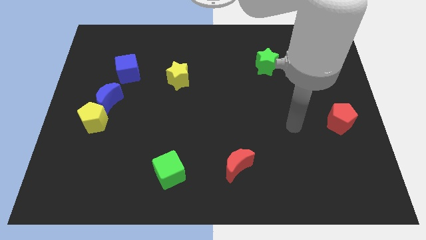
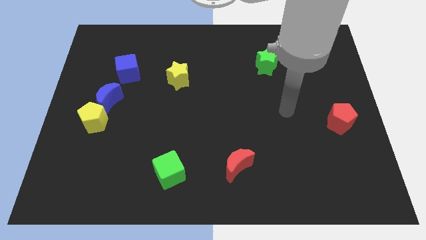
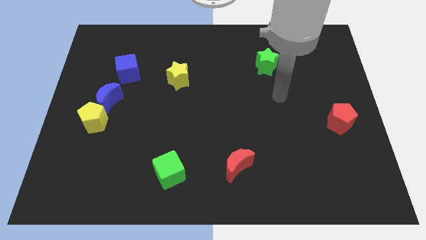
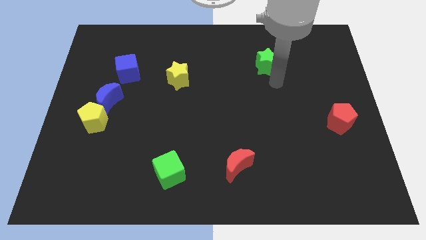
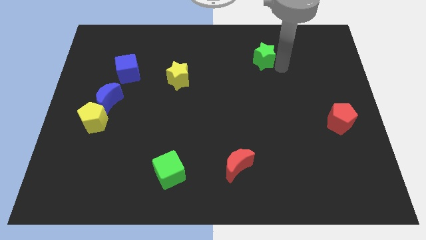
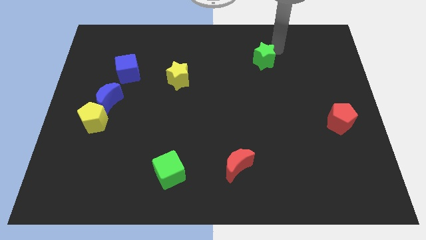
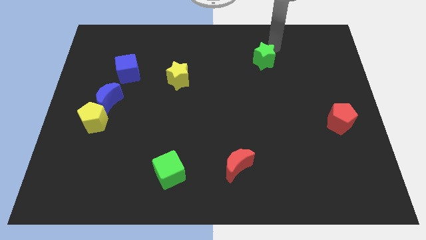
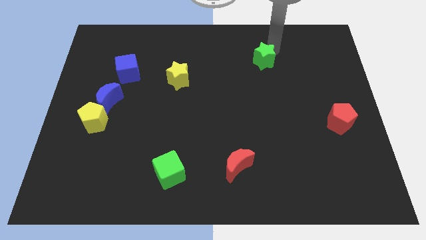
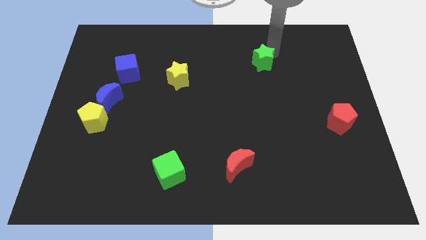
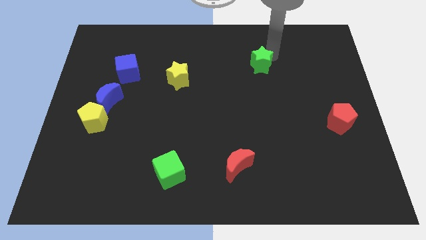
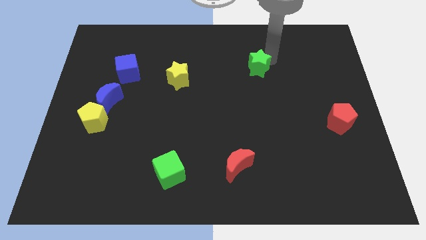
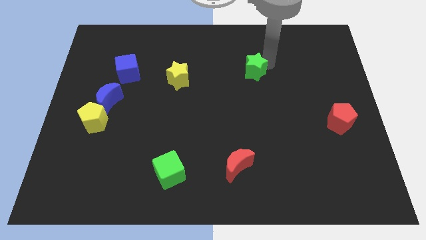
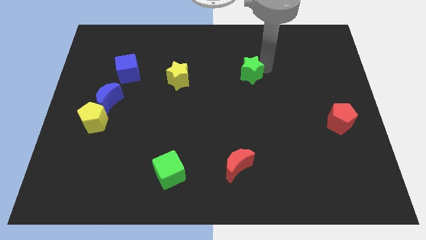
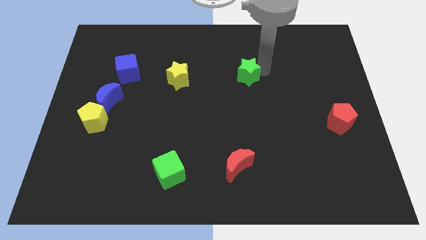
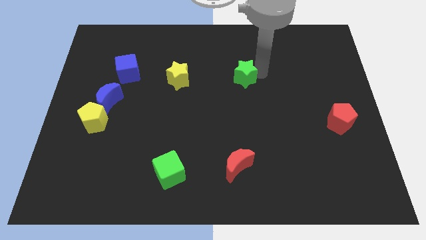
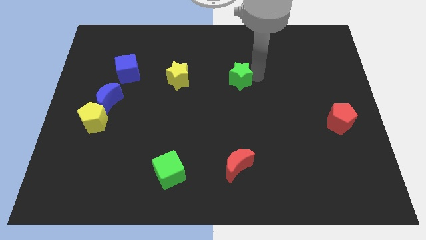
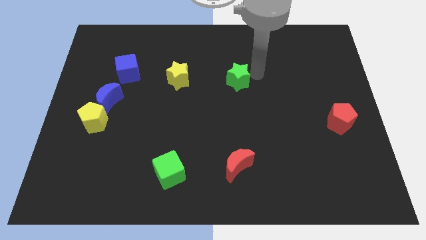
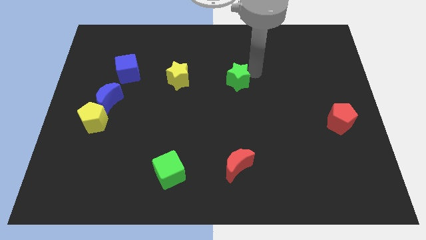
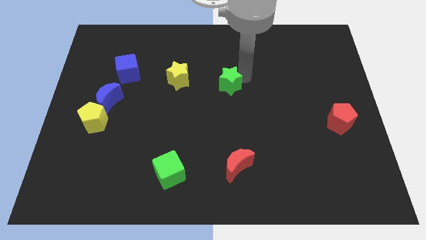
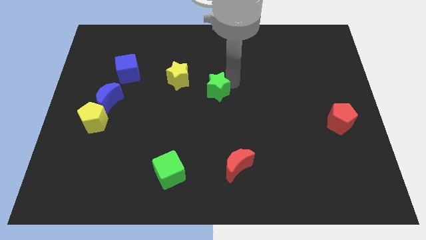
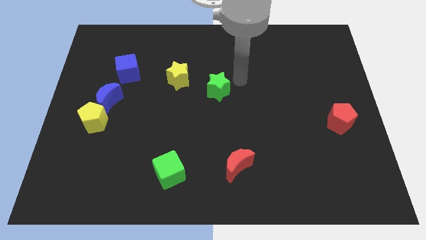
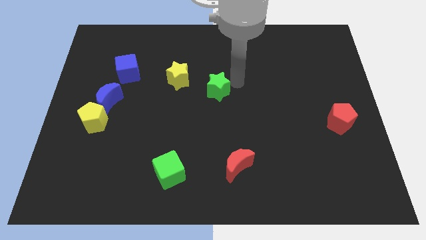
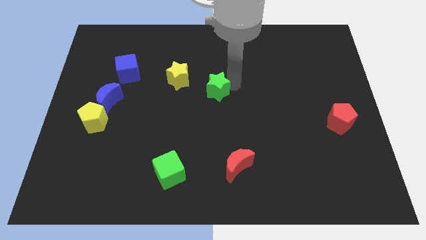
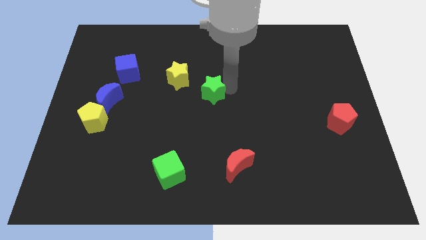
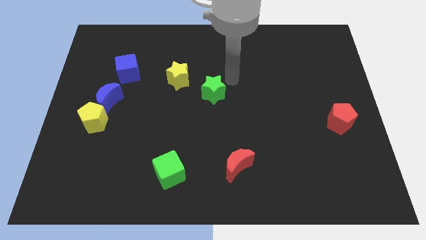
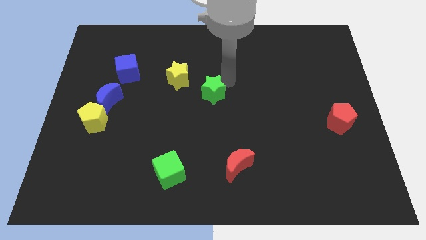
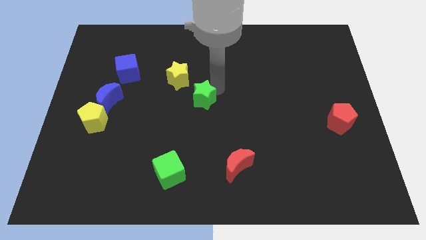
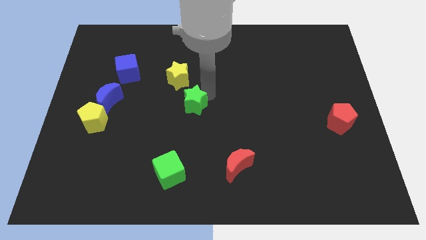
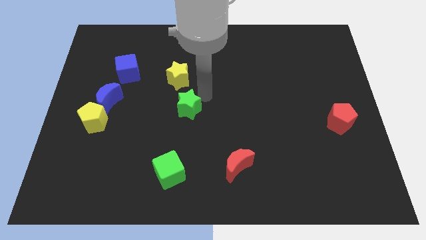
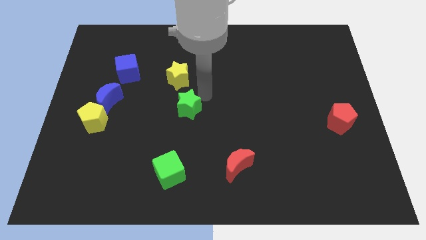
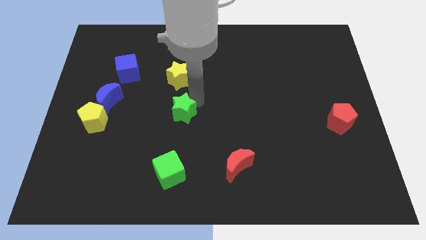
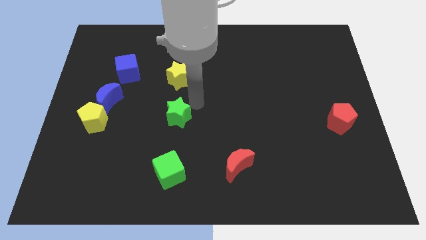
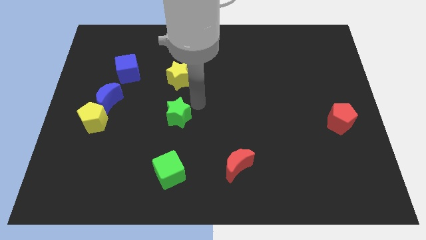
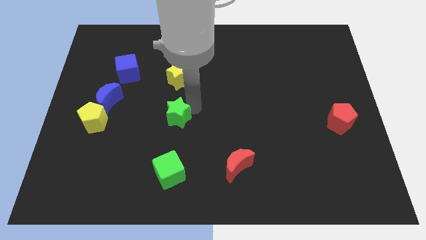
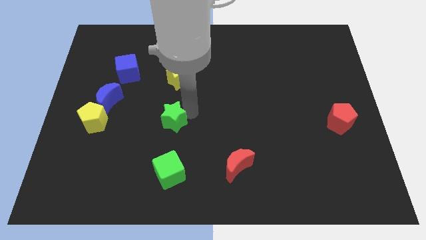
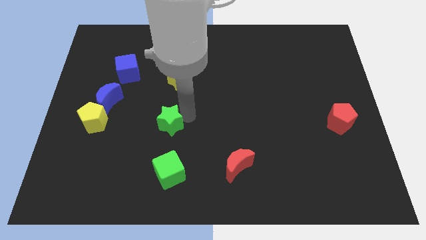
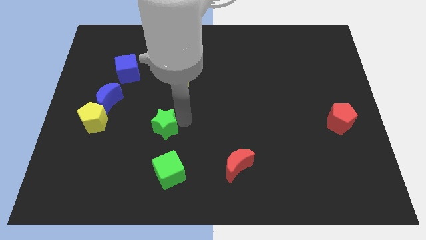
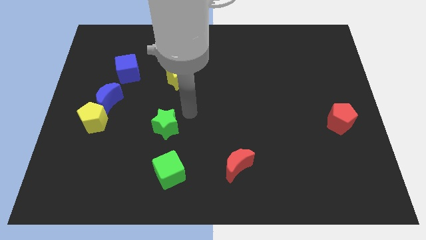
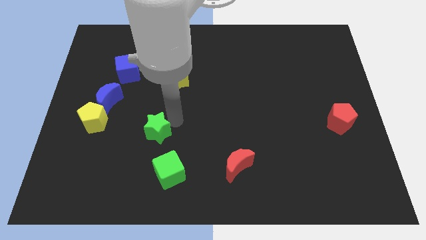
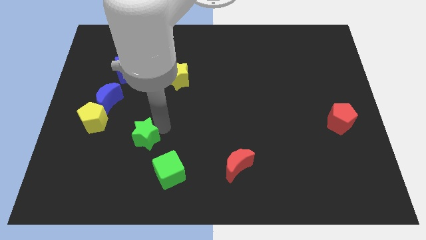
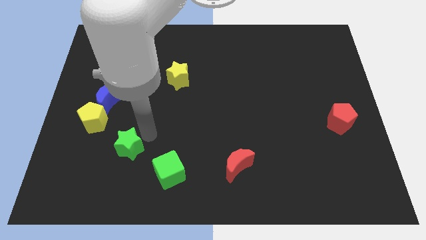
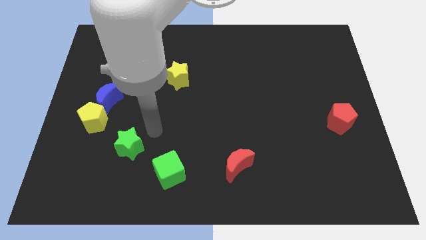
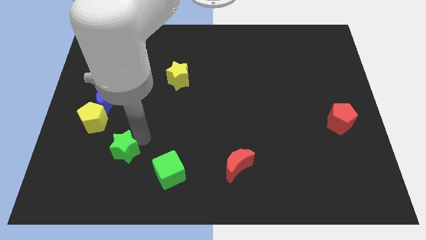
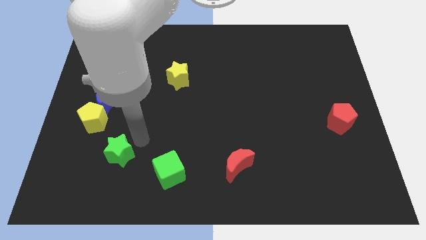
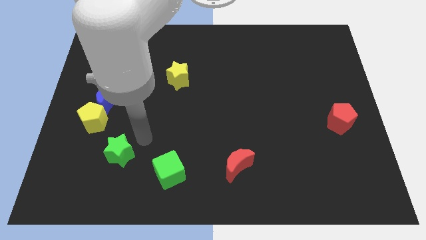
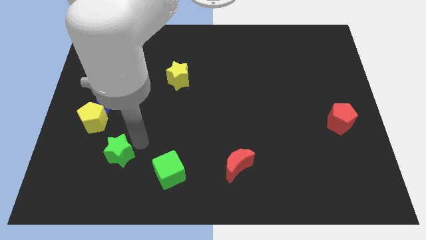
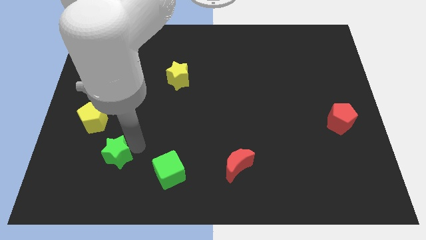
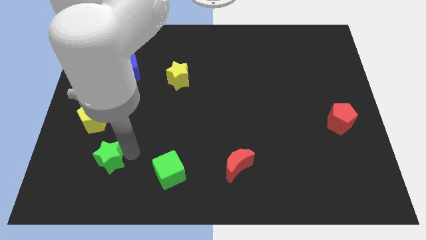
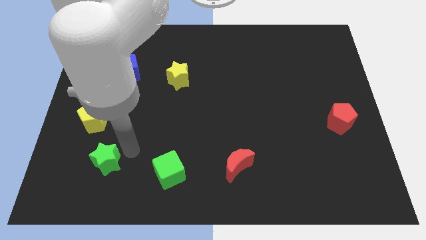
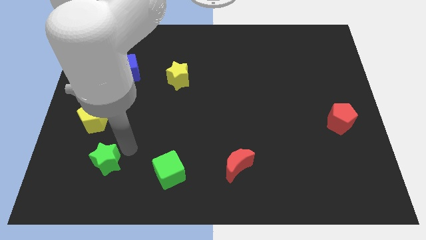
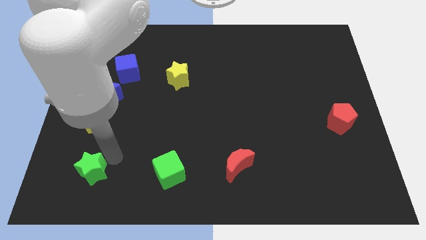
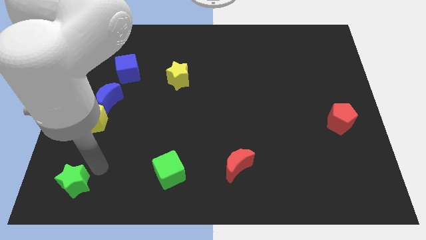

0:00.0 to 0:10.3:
move the green star to the lower left corner
